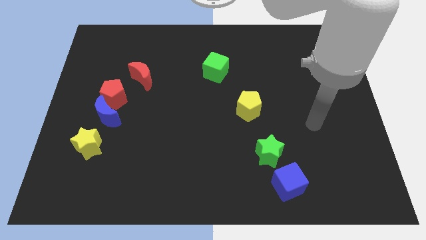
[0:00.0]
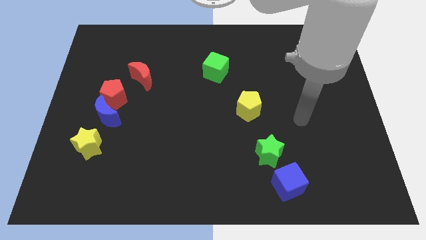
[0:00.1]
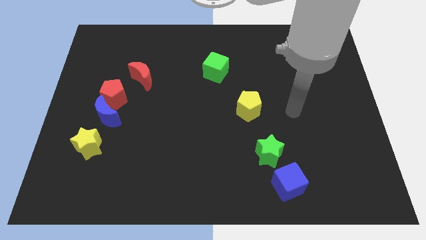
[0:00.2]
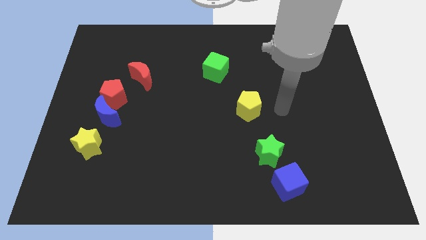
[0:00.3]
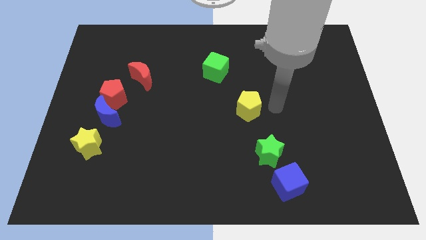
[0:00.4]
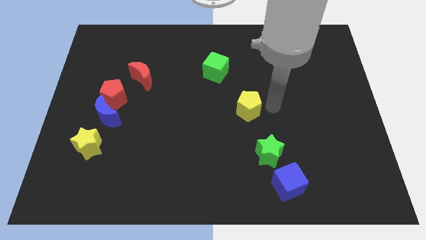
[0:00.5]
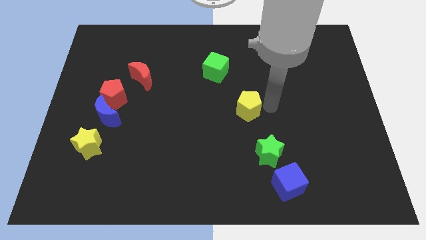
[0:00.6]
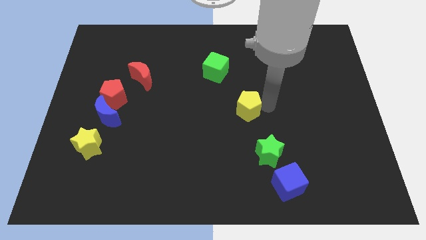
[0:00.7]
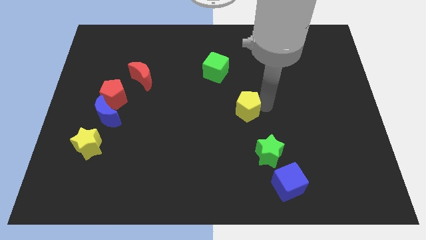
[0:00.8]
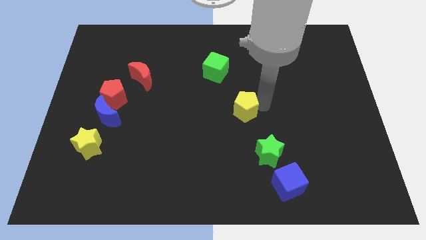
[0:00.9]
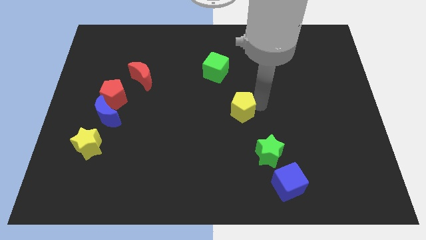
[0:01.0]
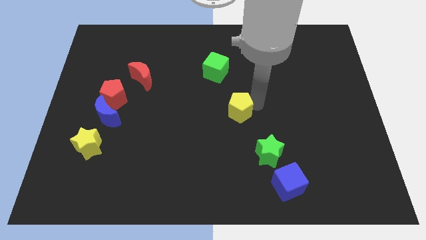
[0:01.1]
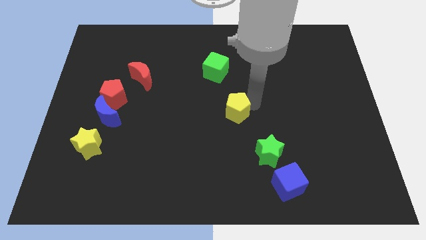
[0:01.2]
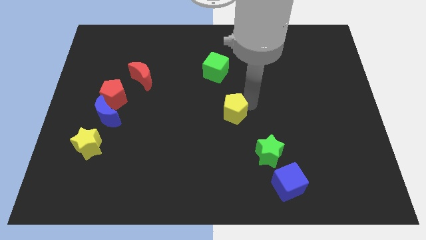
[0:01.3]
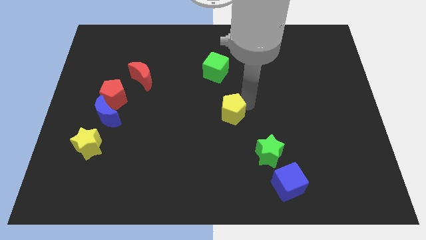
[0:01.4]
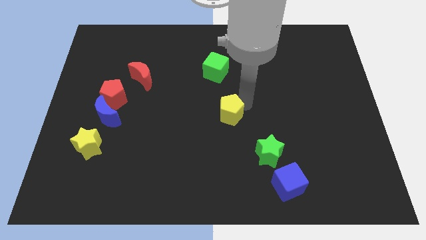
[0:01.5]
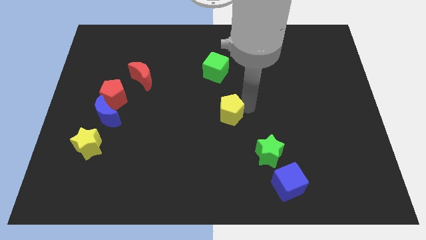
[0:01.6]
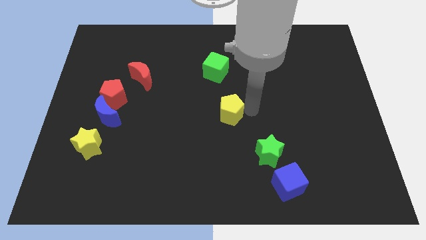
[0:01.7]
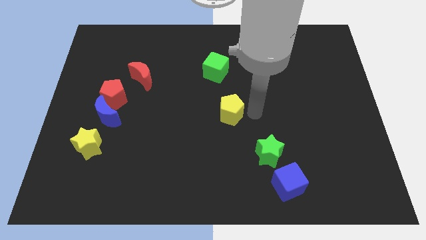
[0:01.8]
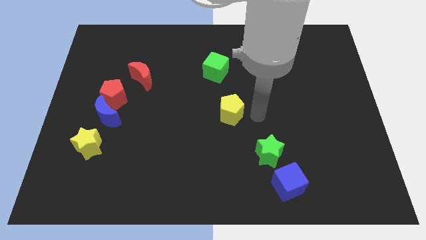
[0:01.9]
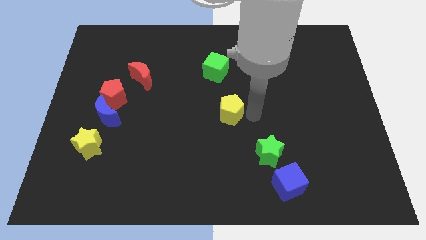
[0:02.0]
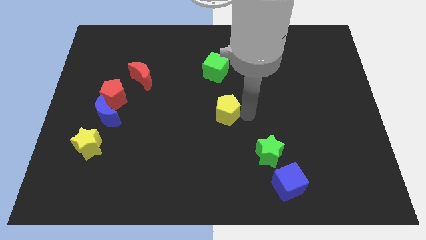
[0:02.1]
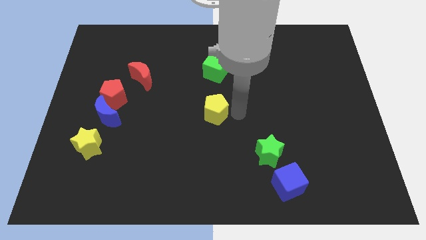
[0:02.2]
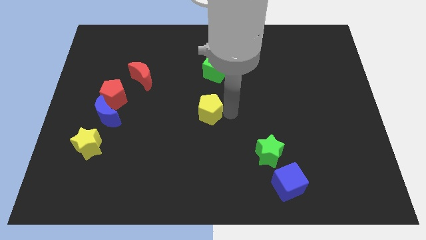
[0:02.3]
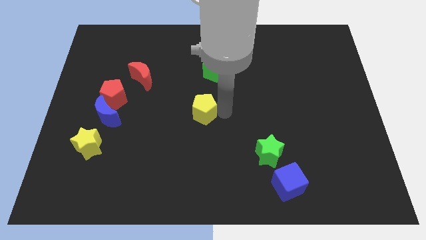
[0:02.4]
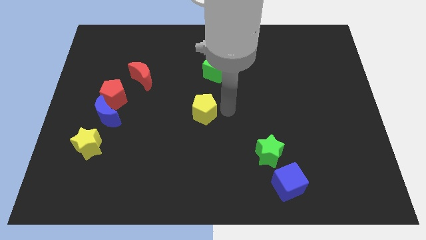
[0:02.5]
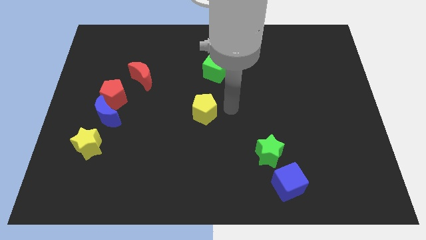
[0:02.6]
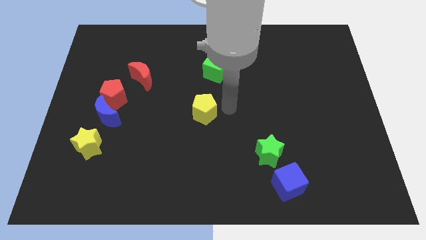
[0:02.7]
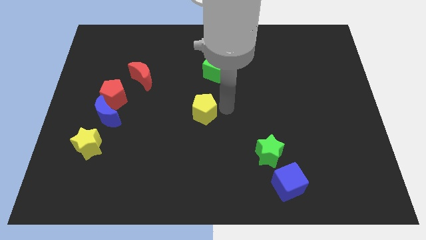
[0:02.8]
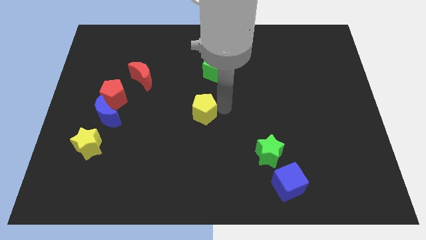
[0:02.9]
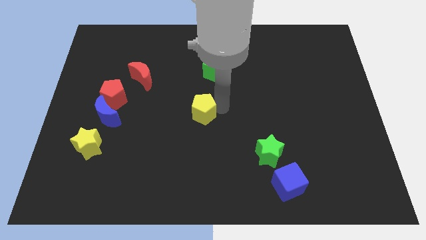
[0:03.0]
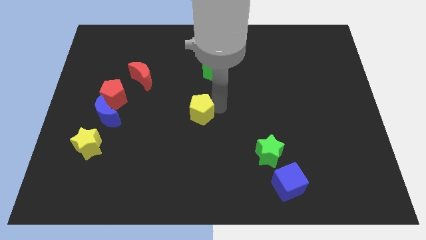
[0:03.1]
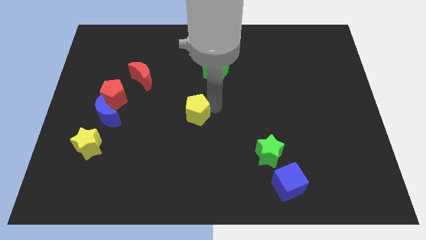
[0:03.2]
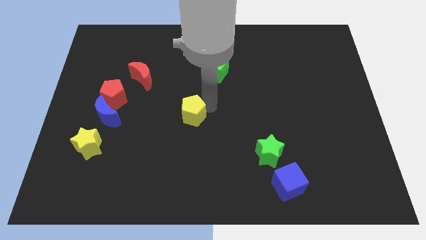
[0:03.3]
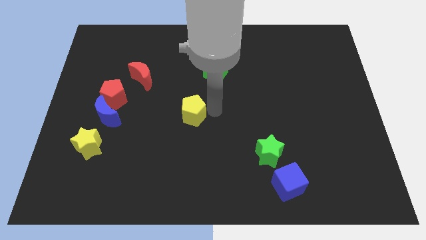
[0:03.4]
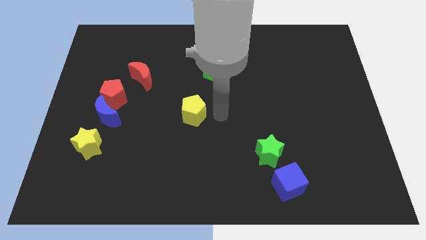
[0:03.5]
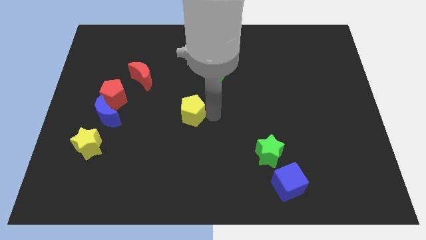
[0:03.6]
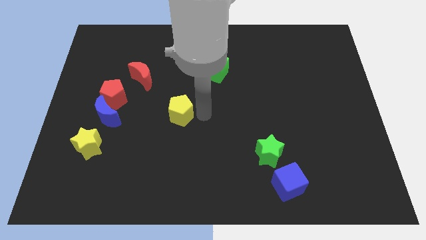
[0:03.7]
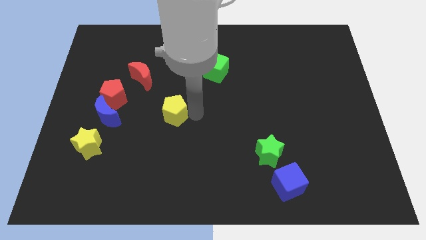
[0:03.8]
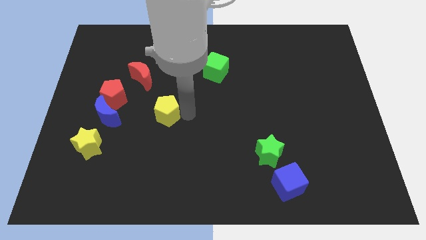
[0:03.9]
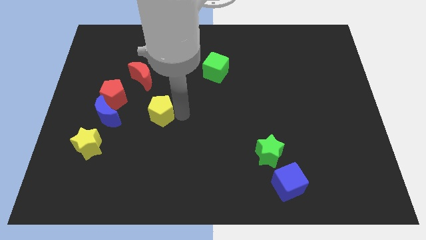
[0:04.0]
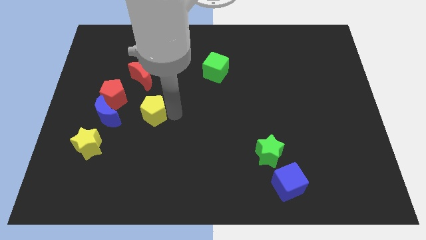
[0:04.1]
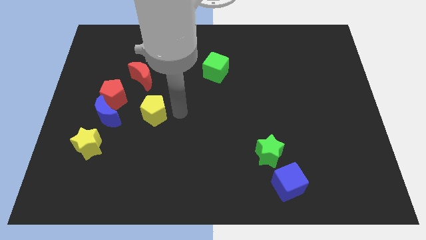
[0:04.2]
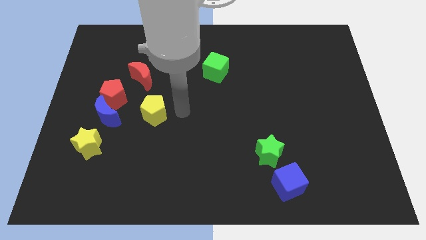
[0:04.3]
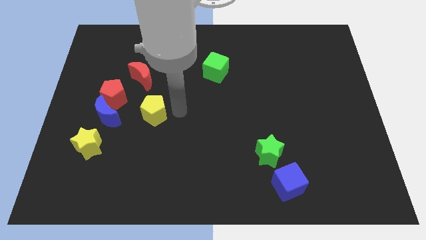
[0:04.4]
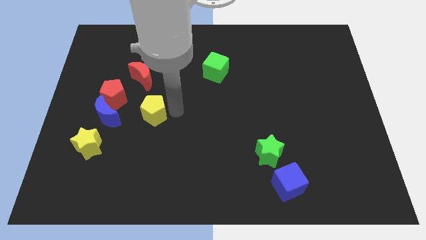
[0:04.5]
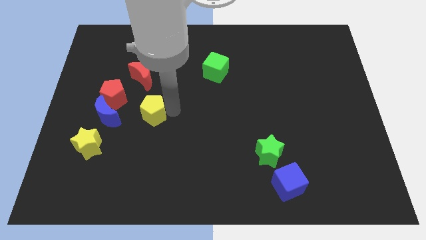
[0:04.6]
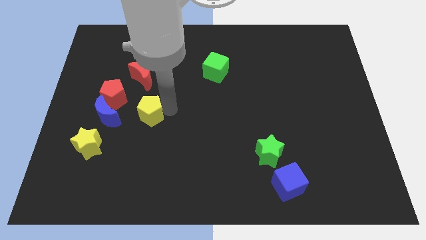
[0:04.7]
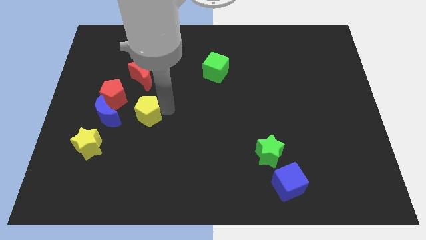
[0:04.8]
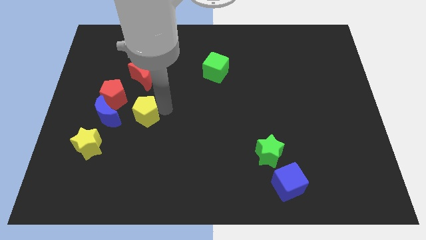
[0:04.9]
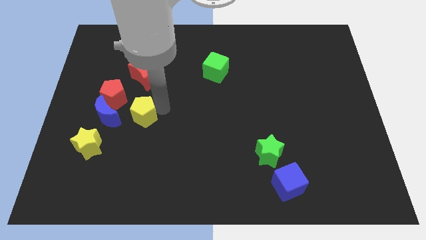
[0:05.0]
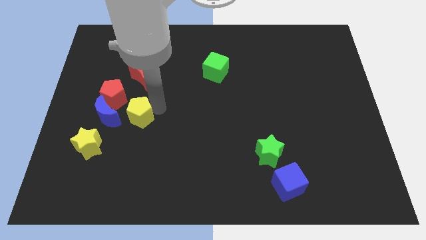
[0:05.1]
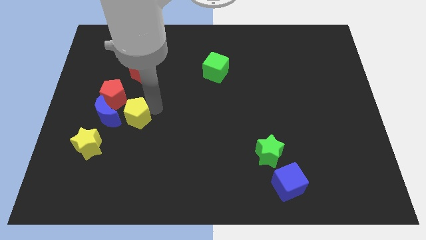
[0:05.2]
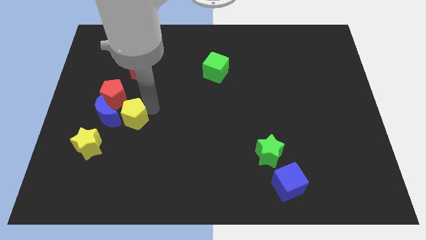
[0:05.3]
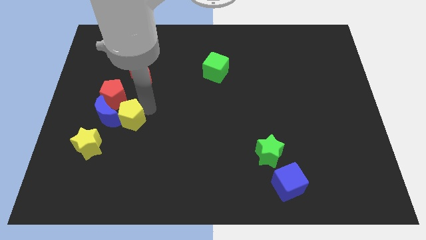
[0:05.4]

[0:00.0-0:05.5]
slide the yellow pentagon to the blue moon

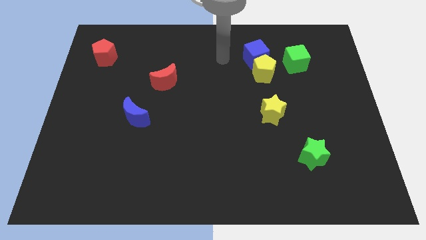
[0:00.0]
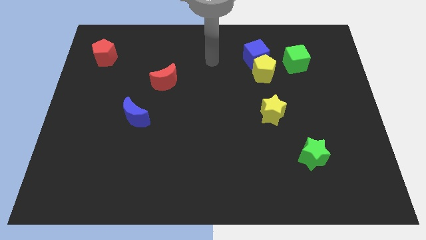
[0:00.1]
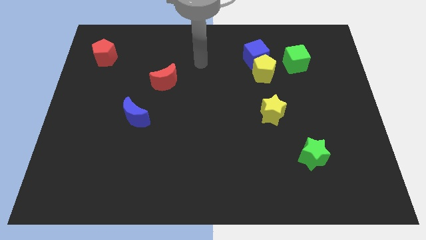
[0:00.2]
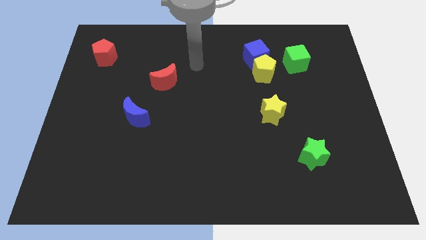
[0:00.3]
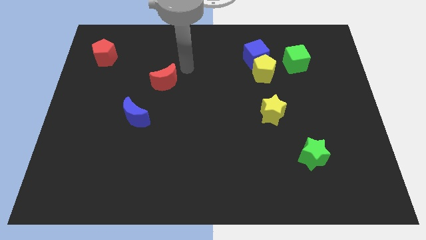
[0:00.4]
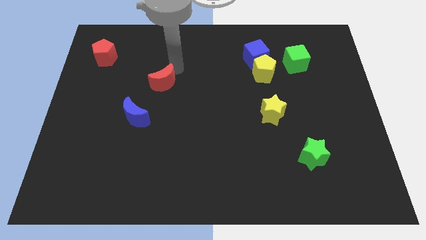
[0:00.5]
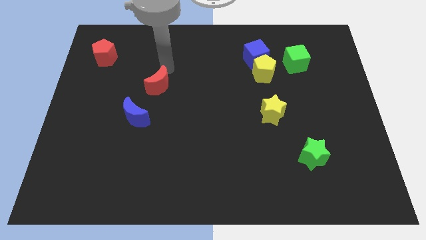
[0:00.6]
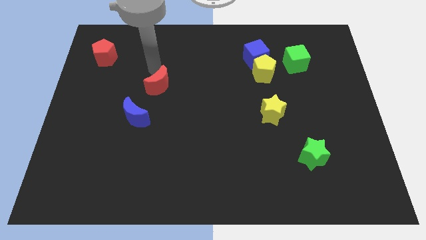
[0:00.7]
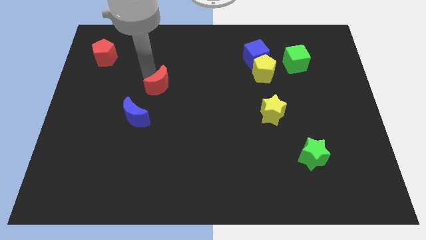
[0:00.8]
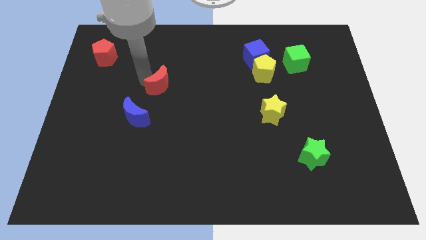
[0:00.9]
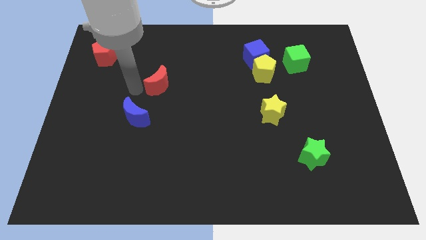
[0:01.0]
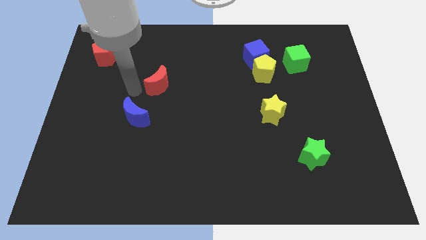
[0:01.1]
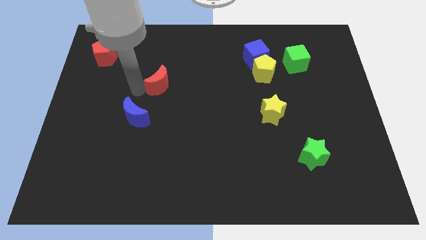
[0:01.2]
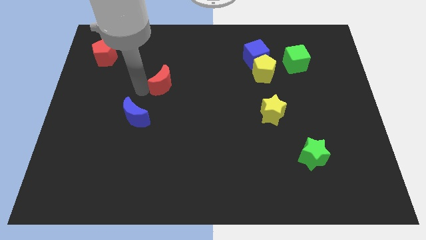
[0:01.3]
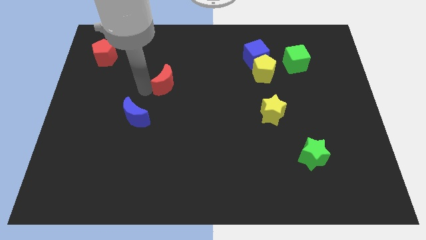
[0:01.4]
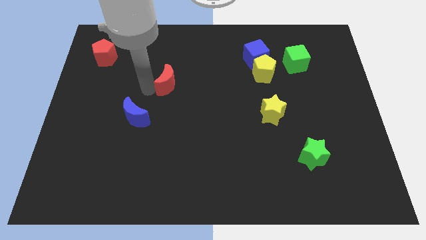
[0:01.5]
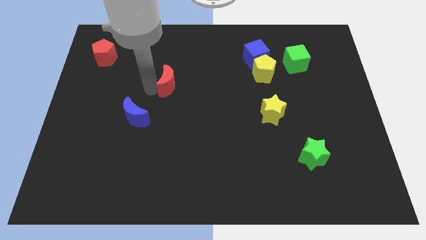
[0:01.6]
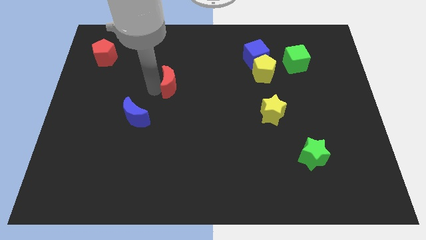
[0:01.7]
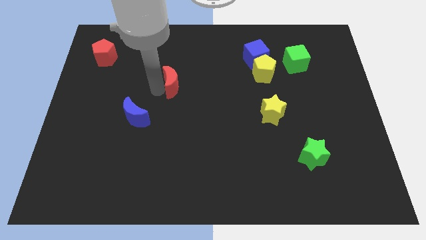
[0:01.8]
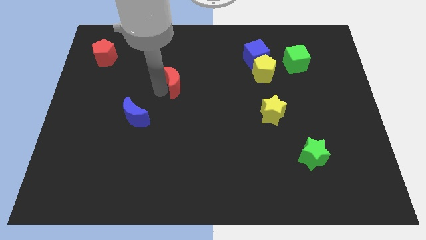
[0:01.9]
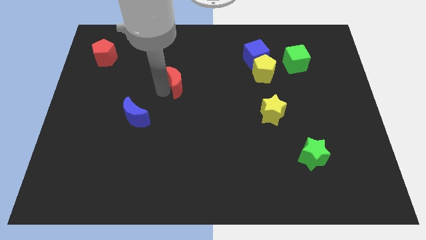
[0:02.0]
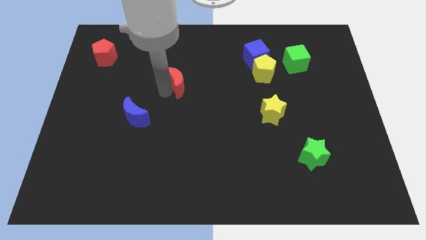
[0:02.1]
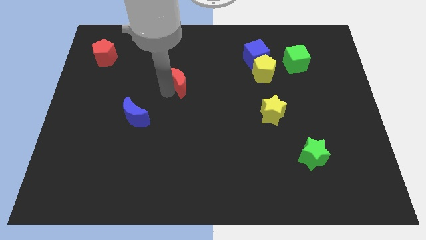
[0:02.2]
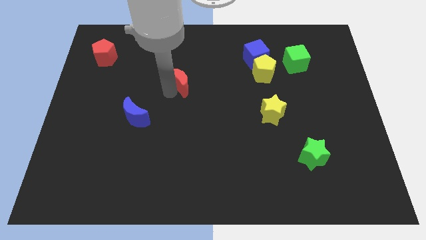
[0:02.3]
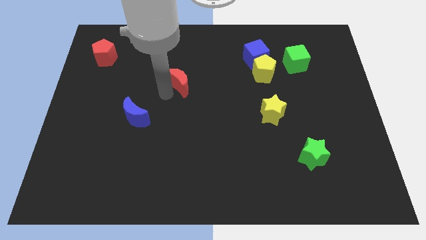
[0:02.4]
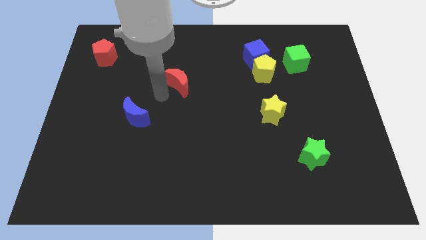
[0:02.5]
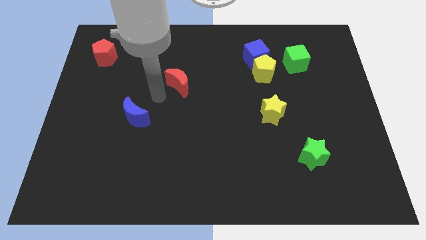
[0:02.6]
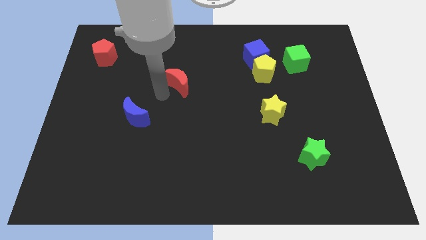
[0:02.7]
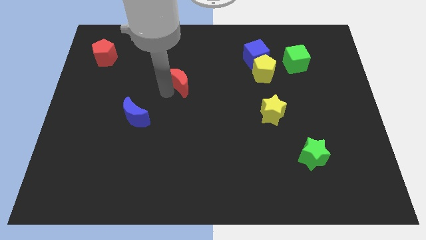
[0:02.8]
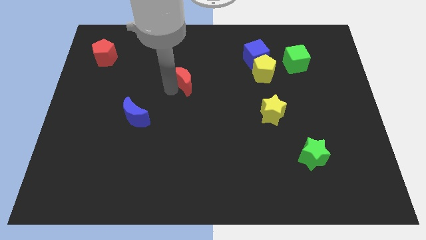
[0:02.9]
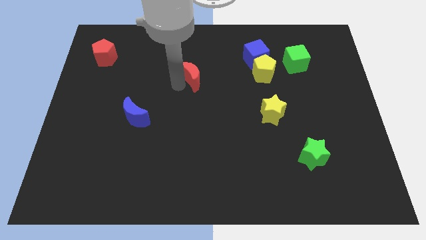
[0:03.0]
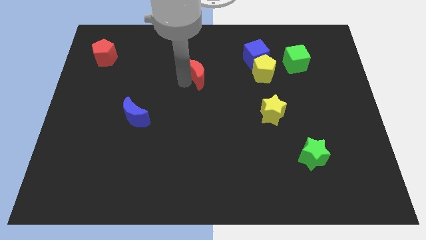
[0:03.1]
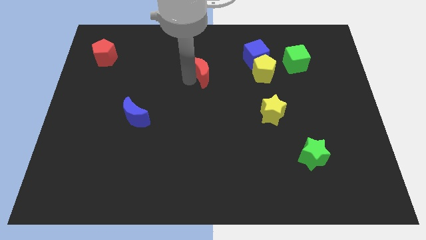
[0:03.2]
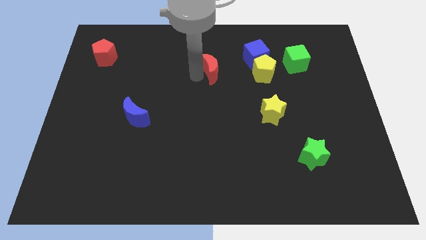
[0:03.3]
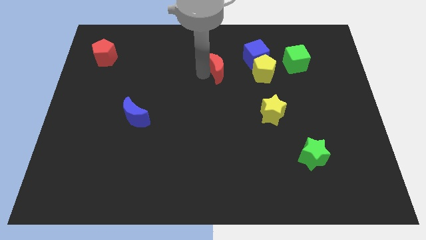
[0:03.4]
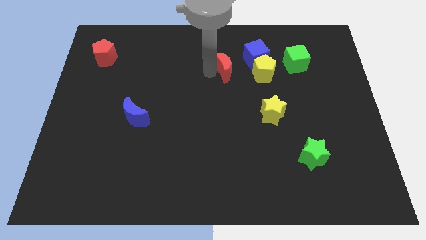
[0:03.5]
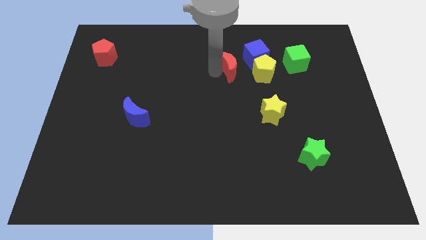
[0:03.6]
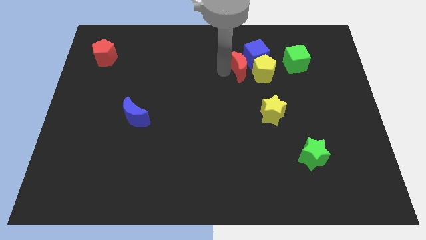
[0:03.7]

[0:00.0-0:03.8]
slide the red moon to the blue cube
